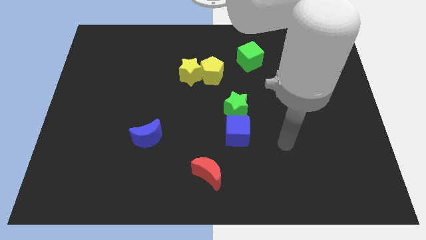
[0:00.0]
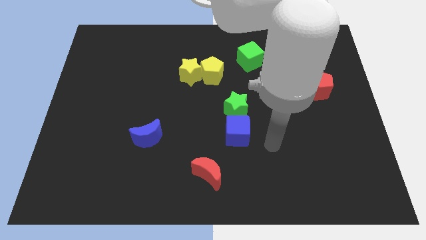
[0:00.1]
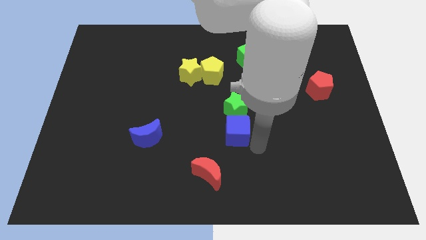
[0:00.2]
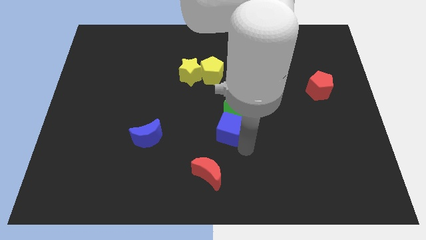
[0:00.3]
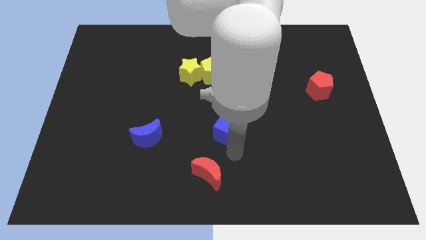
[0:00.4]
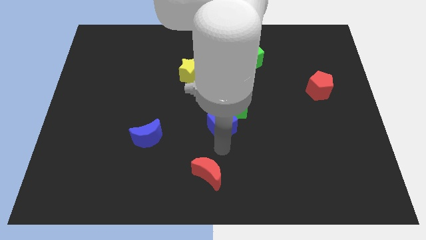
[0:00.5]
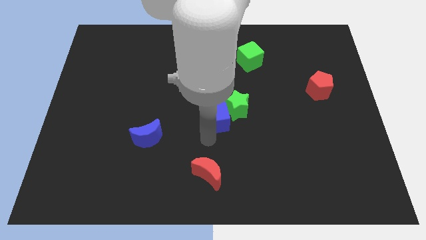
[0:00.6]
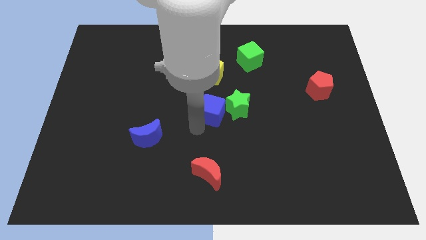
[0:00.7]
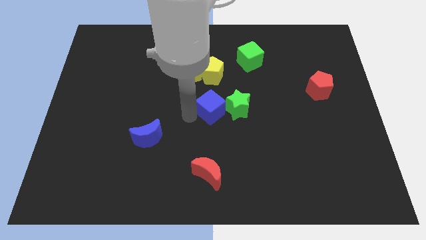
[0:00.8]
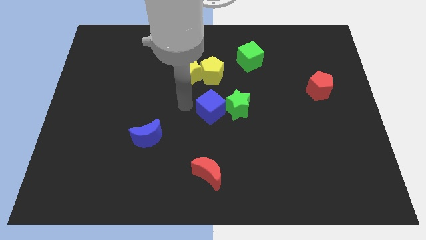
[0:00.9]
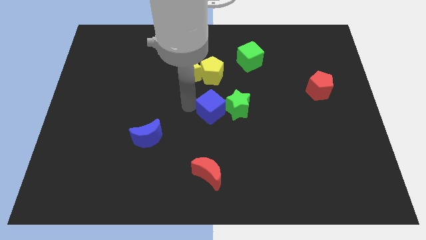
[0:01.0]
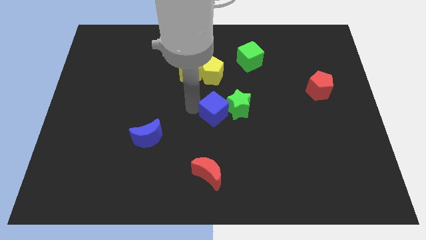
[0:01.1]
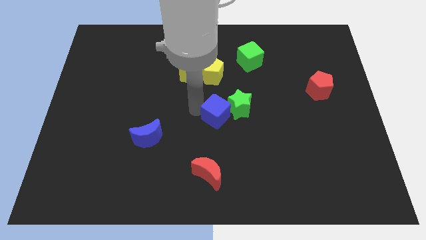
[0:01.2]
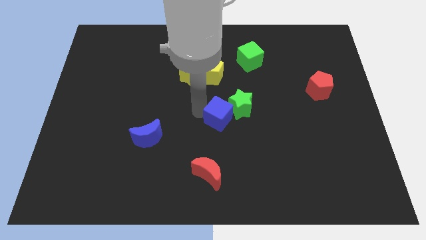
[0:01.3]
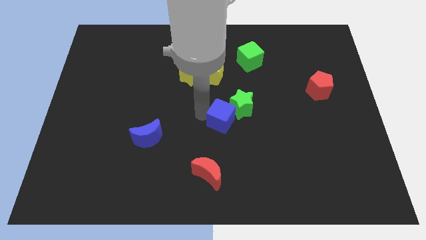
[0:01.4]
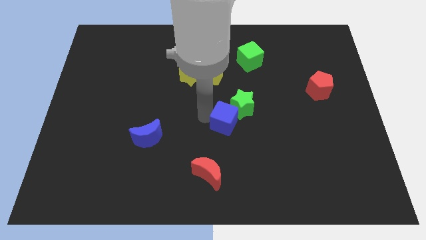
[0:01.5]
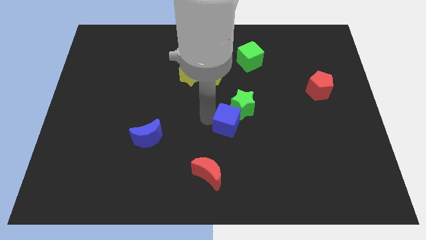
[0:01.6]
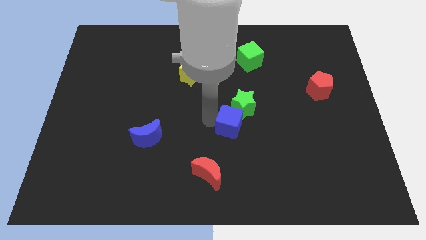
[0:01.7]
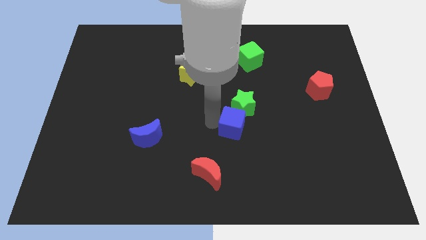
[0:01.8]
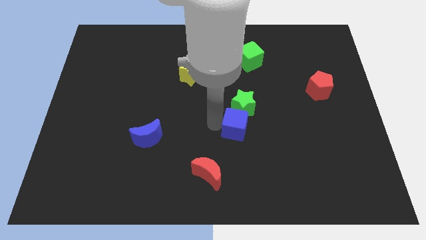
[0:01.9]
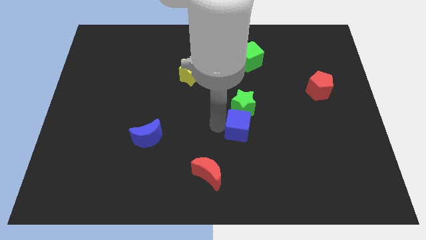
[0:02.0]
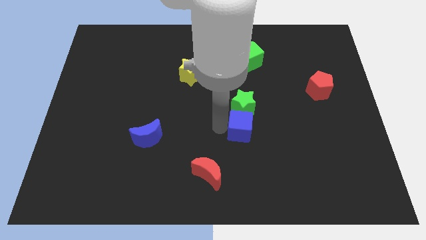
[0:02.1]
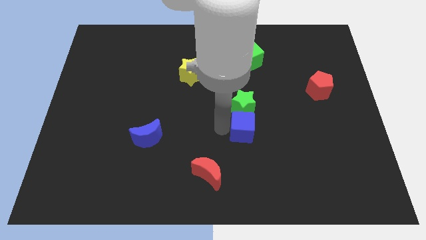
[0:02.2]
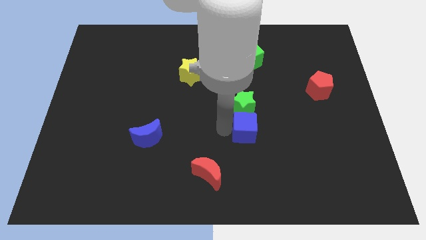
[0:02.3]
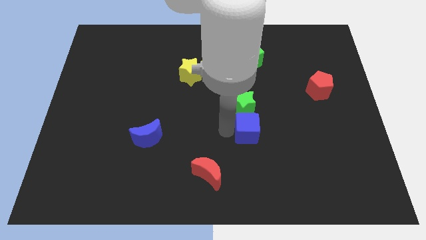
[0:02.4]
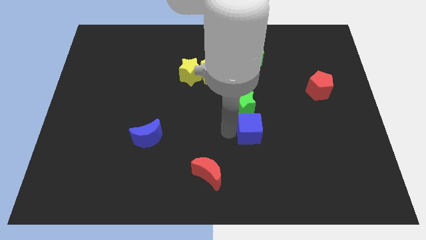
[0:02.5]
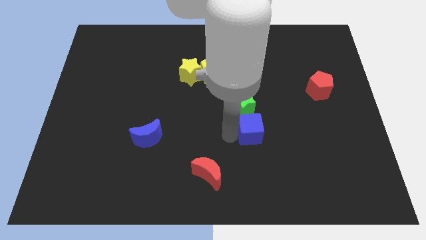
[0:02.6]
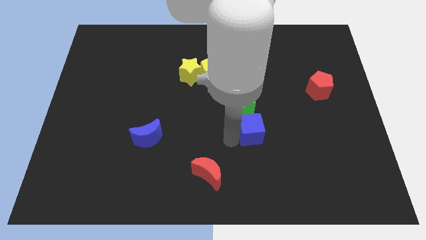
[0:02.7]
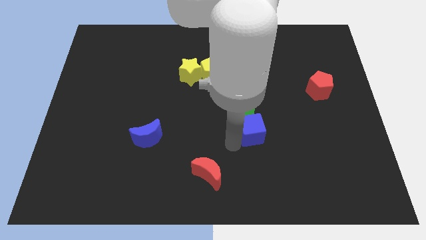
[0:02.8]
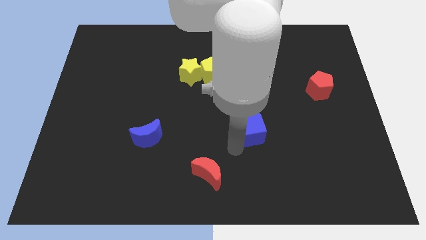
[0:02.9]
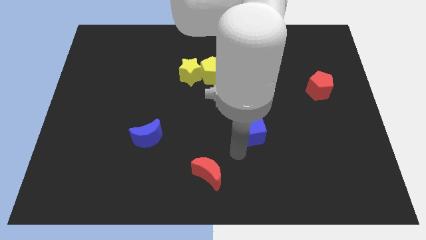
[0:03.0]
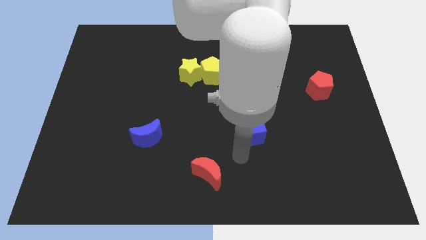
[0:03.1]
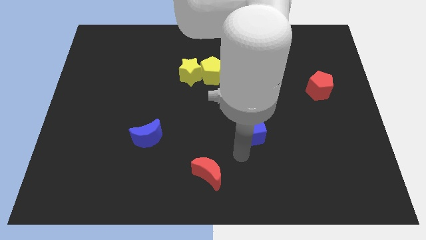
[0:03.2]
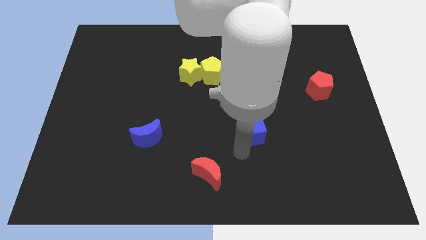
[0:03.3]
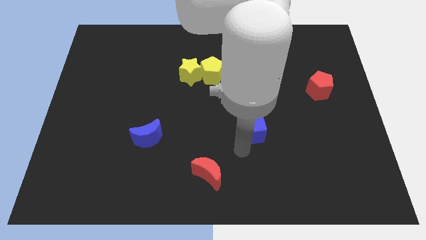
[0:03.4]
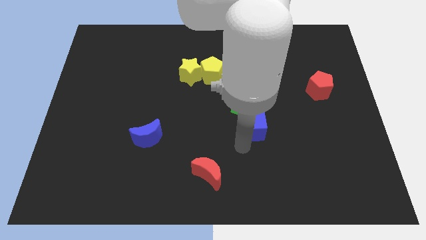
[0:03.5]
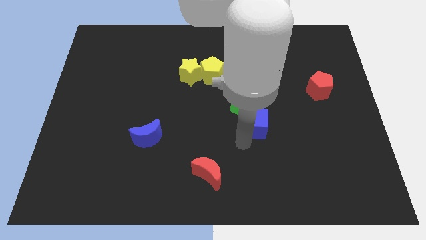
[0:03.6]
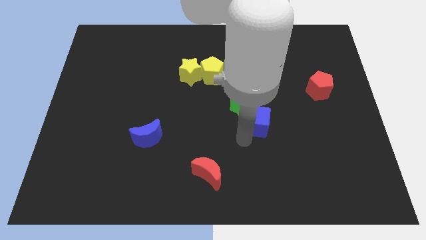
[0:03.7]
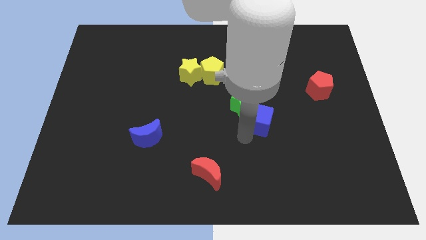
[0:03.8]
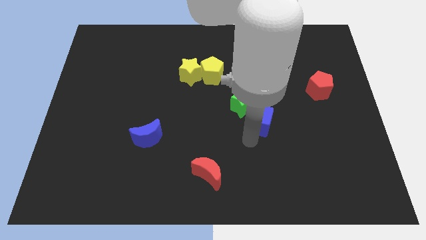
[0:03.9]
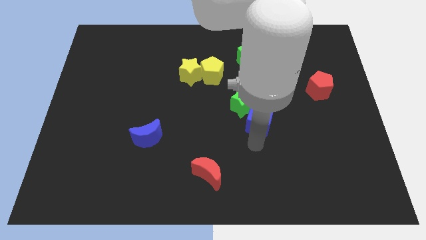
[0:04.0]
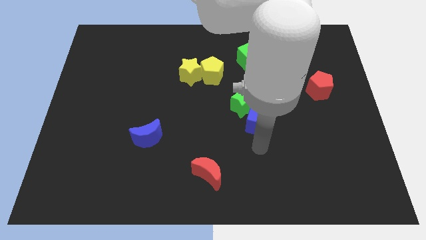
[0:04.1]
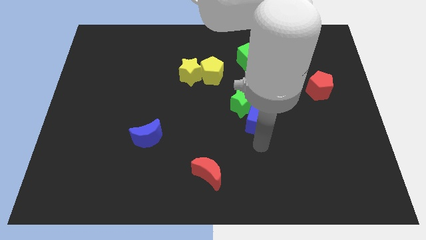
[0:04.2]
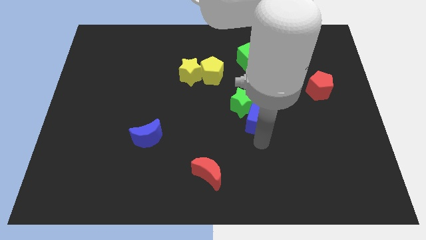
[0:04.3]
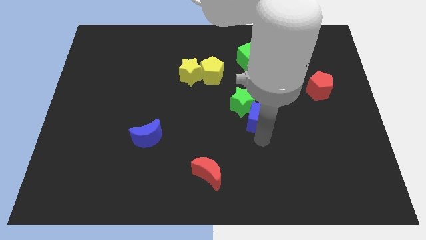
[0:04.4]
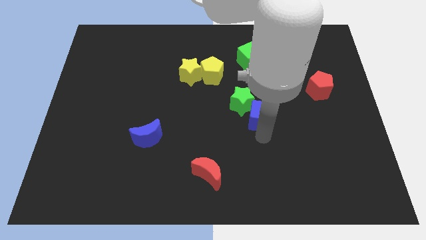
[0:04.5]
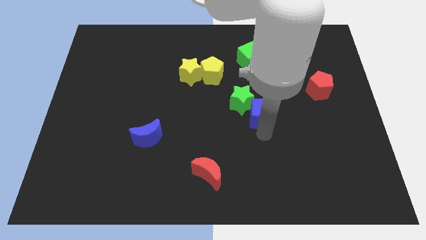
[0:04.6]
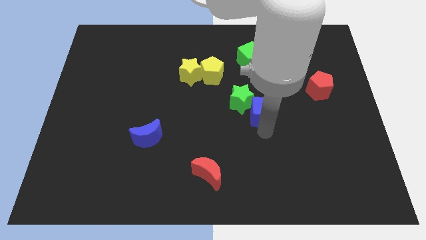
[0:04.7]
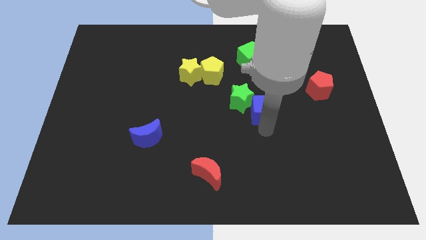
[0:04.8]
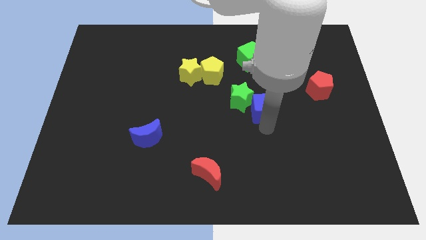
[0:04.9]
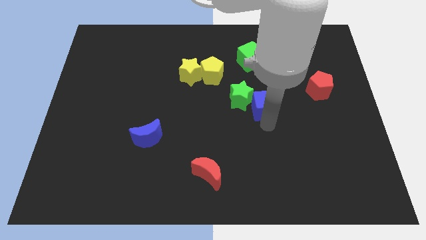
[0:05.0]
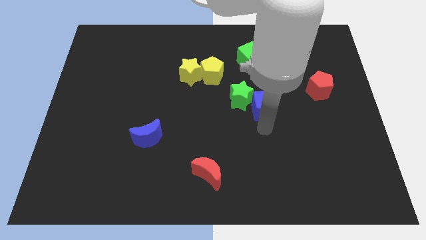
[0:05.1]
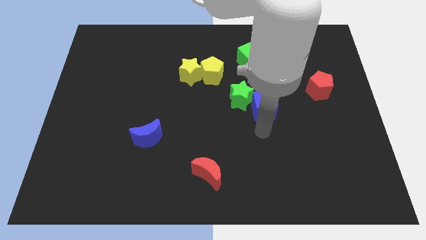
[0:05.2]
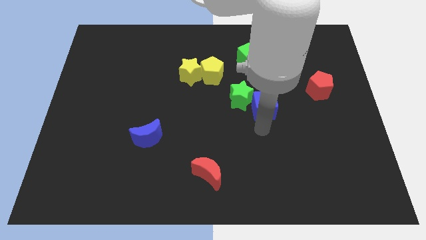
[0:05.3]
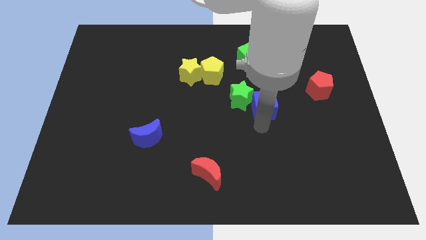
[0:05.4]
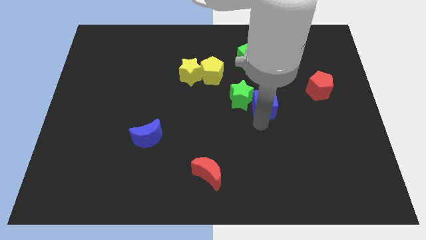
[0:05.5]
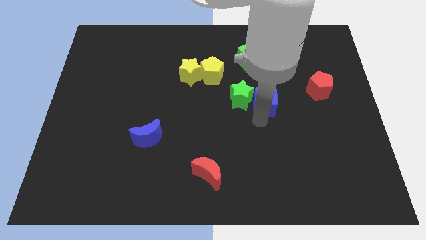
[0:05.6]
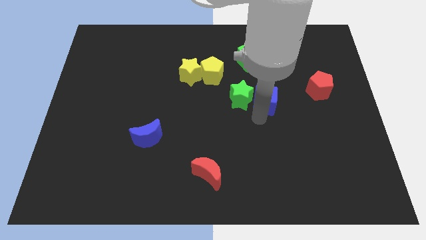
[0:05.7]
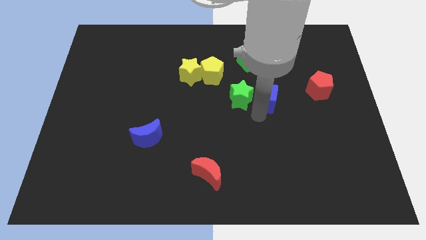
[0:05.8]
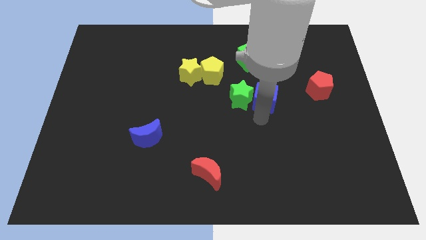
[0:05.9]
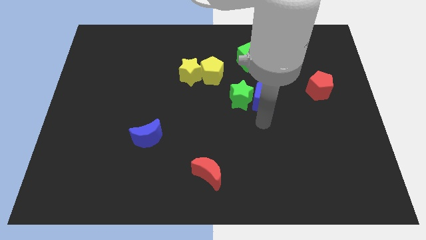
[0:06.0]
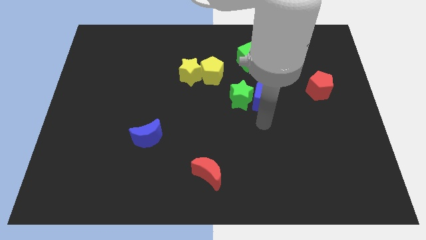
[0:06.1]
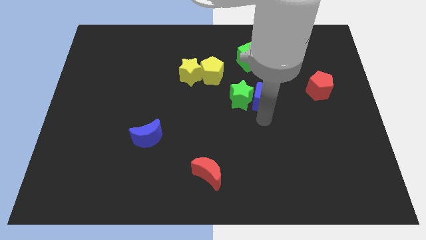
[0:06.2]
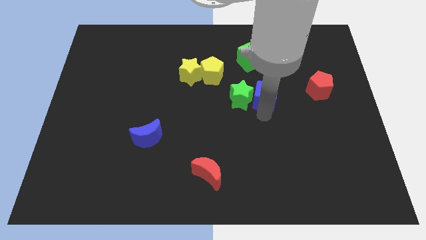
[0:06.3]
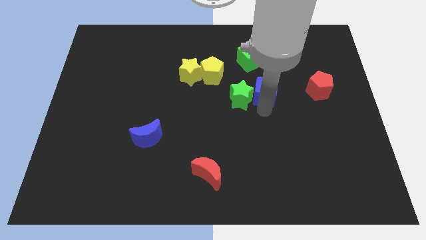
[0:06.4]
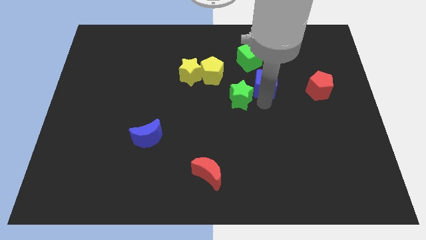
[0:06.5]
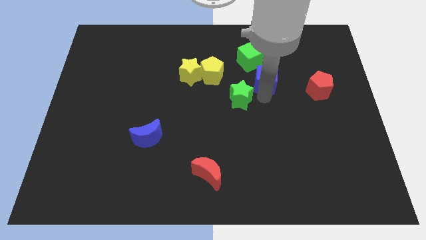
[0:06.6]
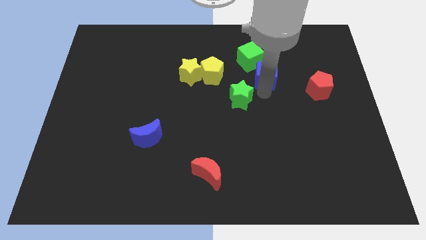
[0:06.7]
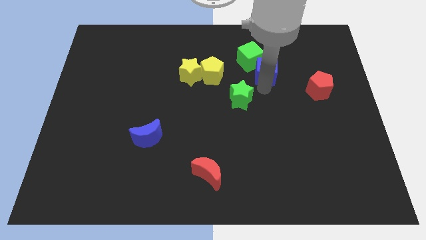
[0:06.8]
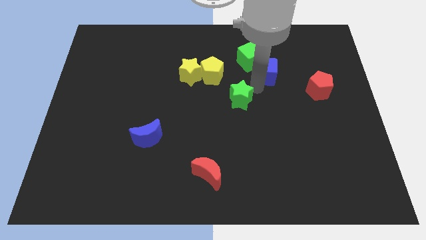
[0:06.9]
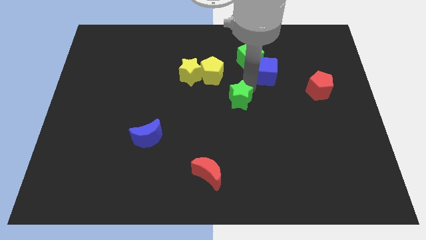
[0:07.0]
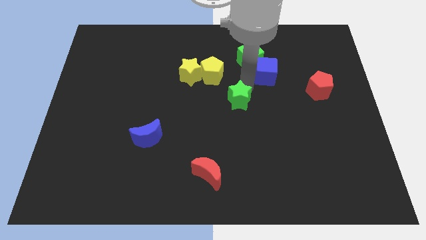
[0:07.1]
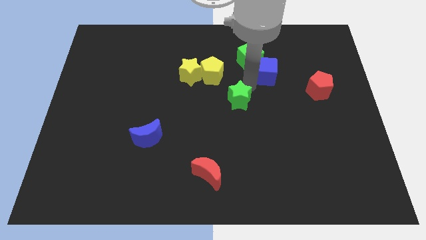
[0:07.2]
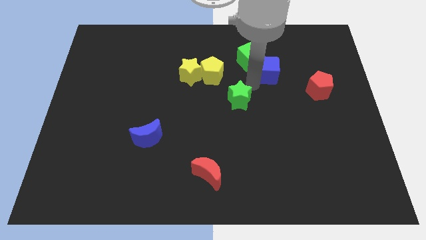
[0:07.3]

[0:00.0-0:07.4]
push the blue cube just right of the green cube

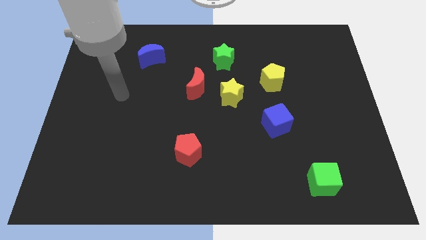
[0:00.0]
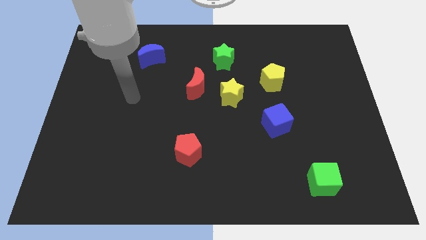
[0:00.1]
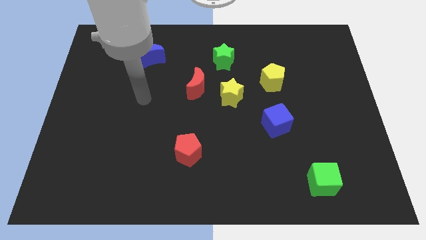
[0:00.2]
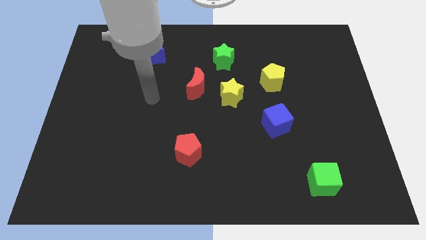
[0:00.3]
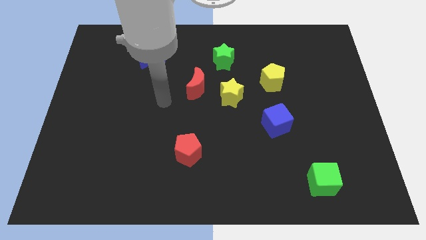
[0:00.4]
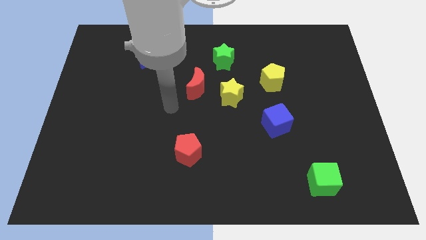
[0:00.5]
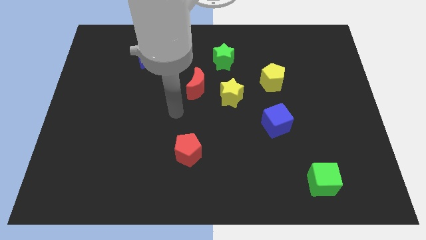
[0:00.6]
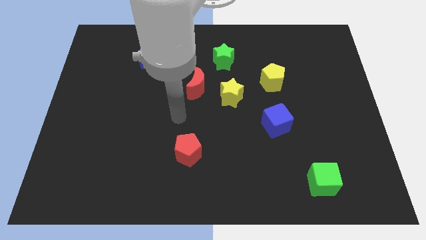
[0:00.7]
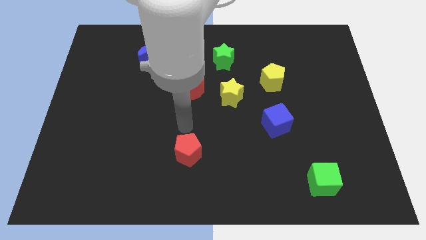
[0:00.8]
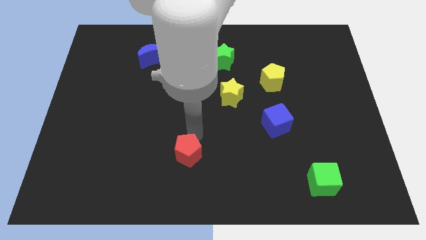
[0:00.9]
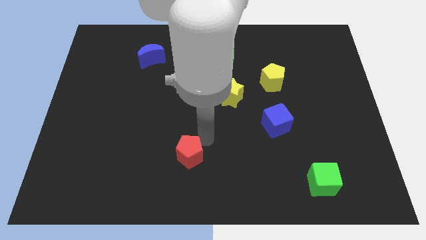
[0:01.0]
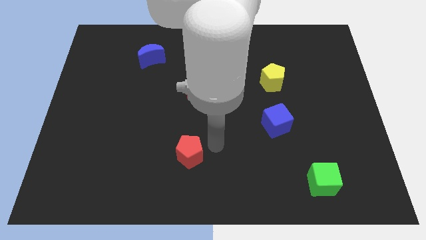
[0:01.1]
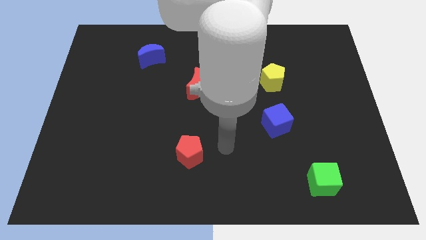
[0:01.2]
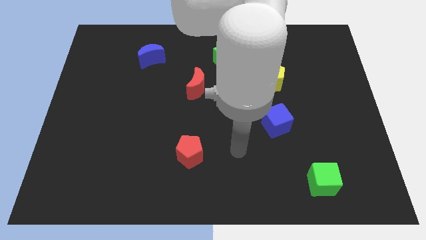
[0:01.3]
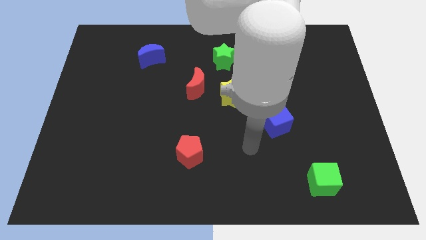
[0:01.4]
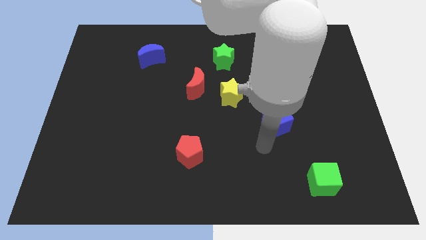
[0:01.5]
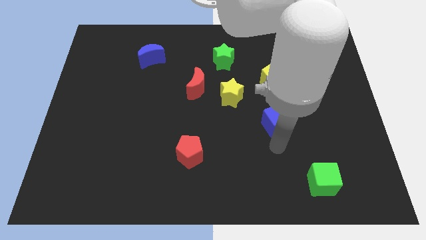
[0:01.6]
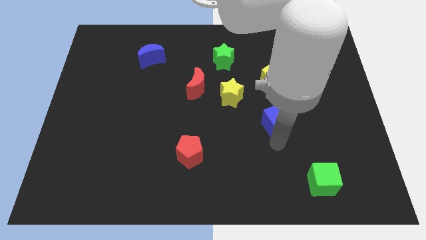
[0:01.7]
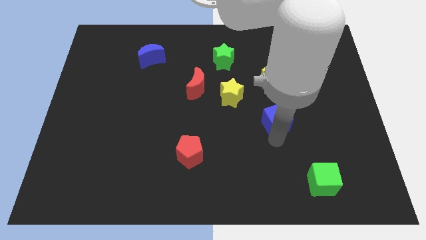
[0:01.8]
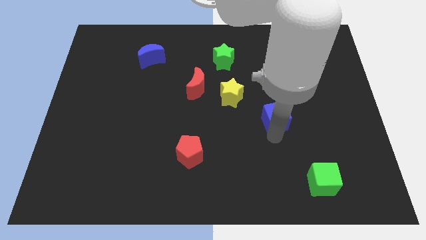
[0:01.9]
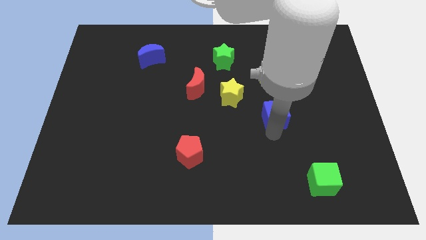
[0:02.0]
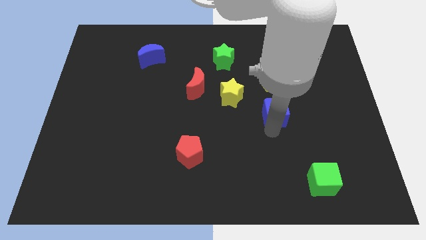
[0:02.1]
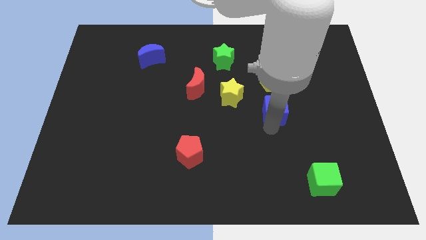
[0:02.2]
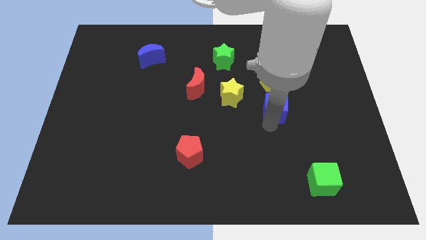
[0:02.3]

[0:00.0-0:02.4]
push the blue cube to the right side of the yellow star
